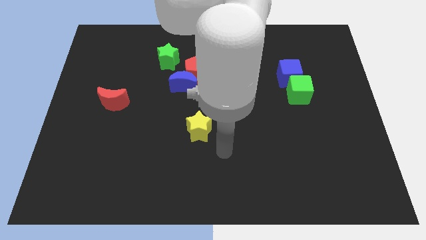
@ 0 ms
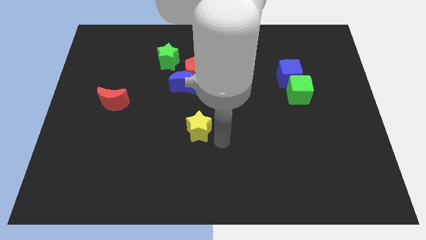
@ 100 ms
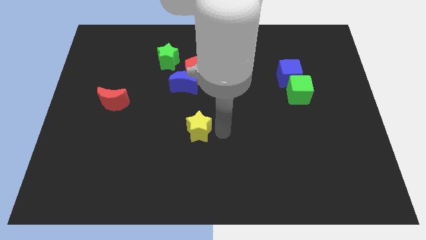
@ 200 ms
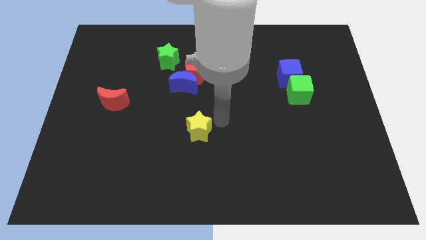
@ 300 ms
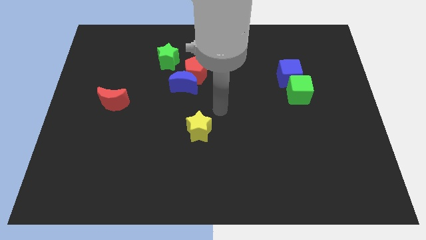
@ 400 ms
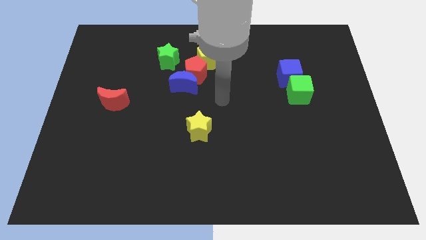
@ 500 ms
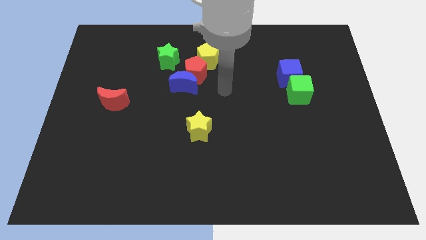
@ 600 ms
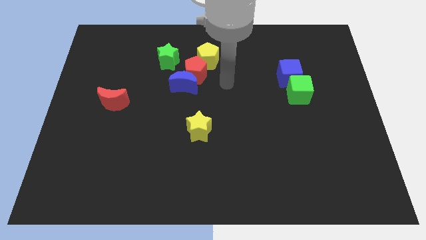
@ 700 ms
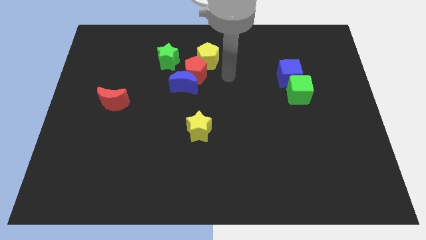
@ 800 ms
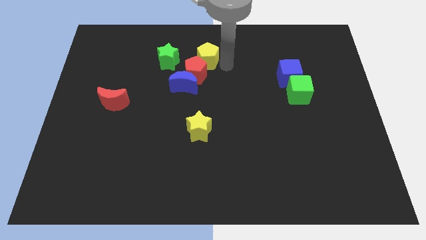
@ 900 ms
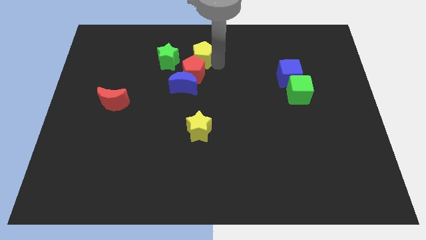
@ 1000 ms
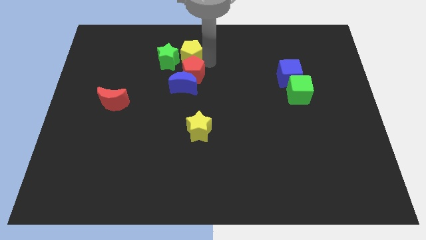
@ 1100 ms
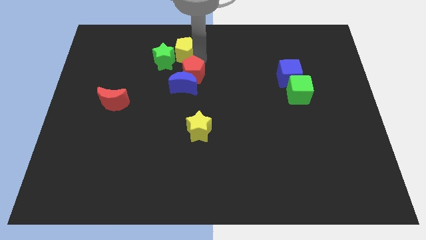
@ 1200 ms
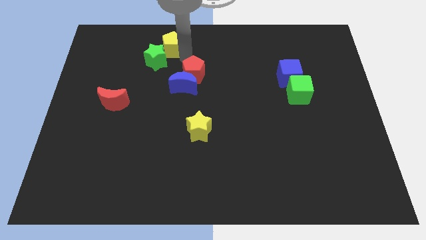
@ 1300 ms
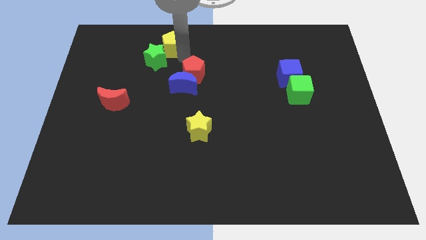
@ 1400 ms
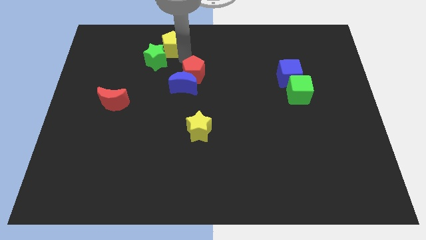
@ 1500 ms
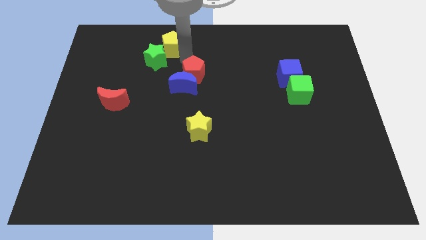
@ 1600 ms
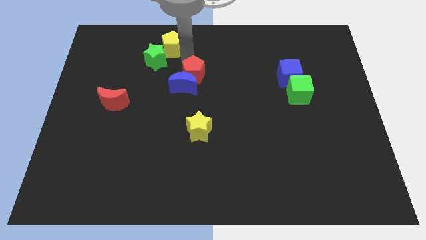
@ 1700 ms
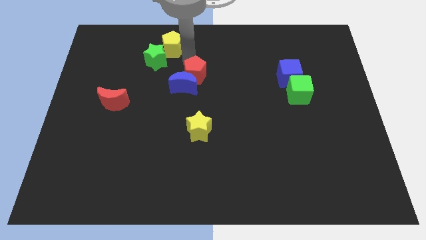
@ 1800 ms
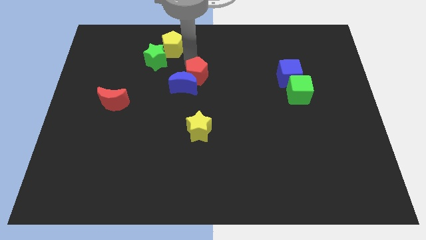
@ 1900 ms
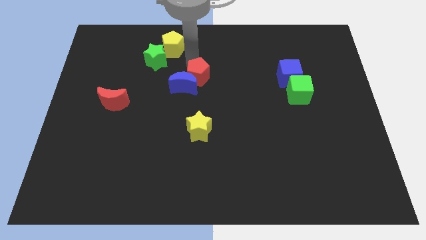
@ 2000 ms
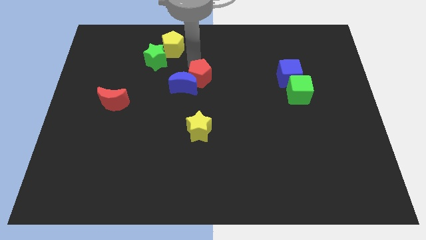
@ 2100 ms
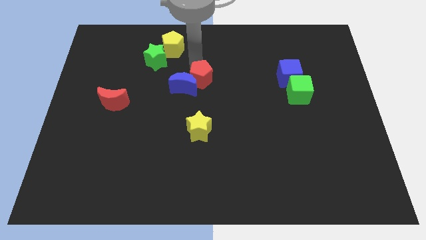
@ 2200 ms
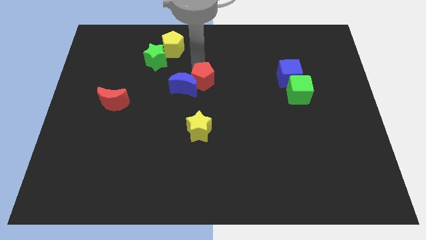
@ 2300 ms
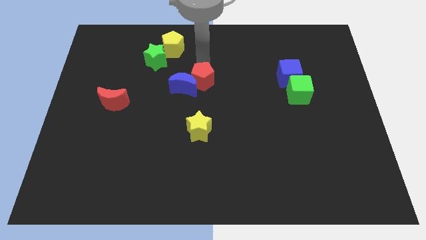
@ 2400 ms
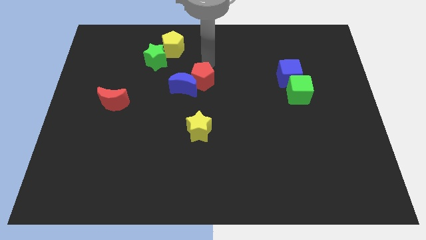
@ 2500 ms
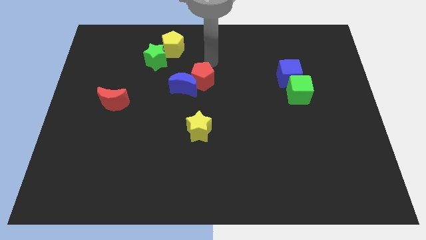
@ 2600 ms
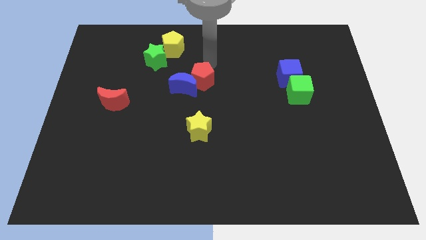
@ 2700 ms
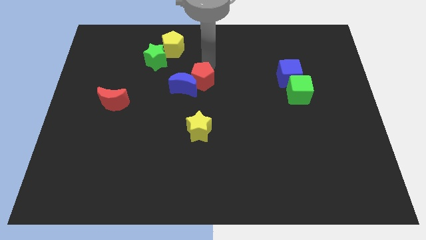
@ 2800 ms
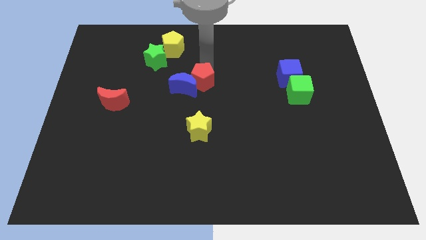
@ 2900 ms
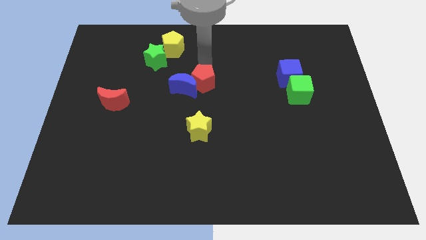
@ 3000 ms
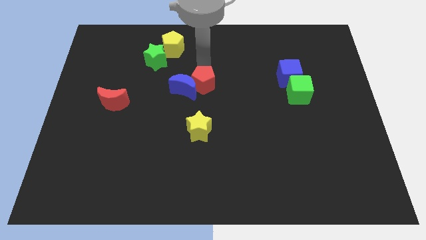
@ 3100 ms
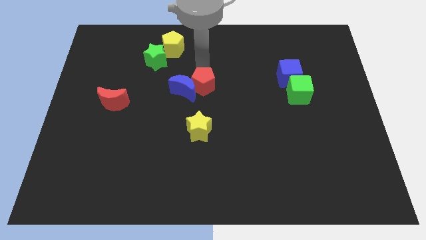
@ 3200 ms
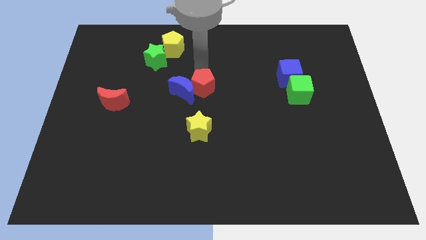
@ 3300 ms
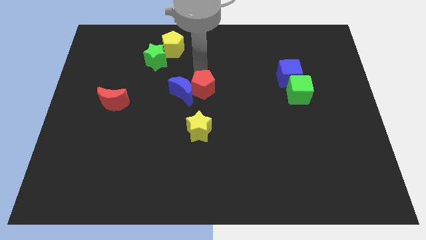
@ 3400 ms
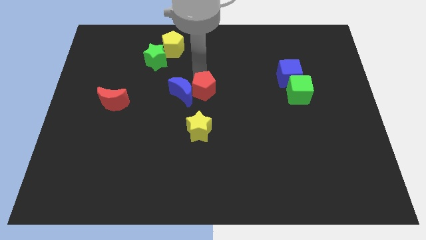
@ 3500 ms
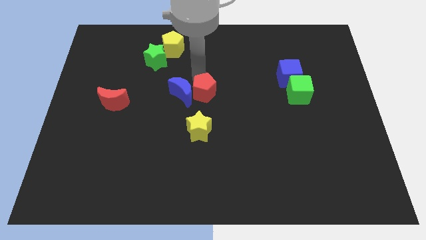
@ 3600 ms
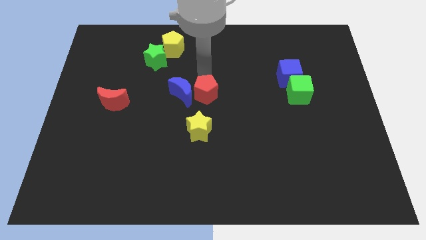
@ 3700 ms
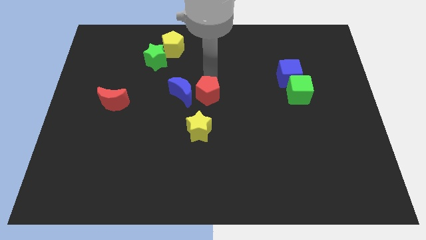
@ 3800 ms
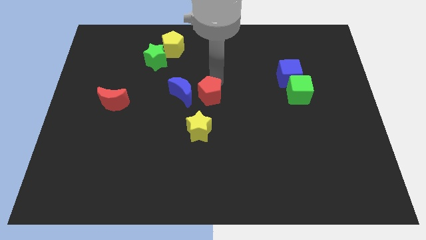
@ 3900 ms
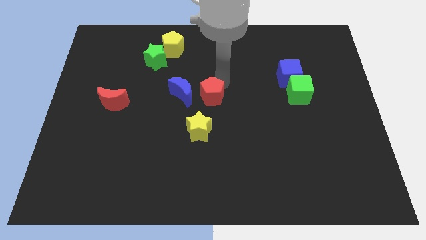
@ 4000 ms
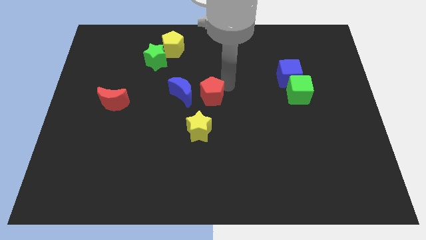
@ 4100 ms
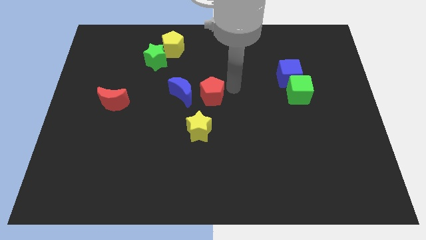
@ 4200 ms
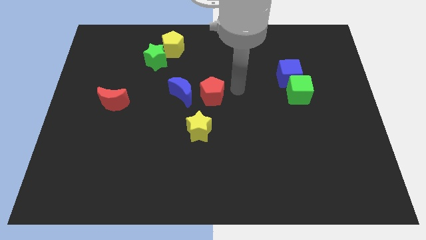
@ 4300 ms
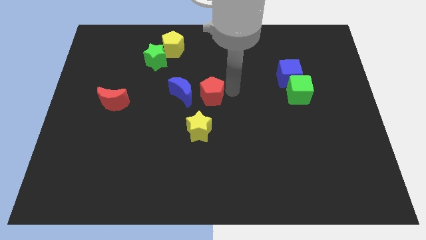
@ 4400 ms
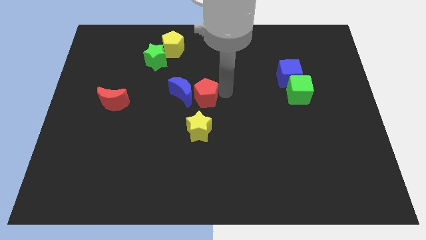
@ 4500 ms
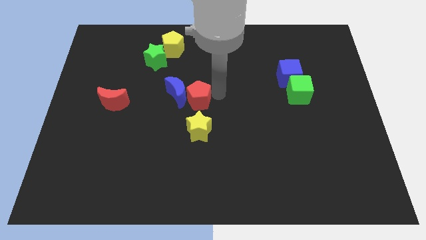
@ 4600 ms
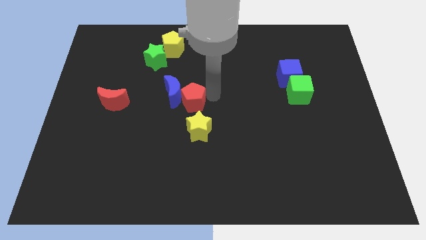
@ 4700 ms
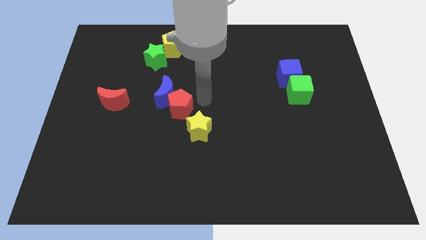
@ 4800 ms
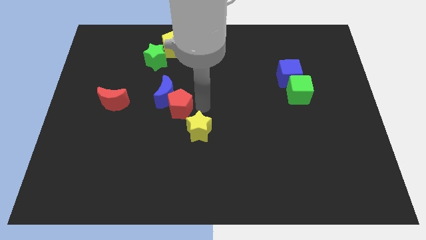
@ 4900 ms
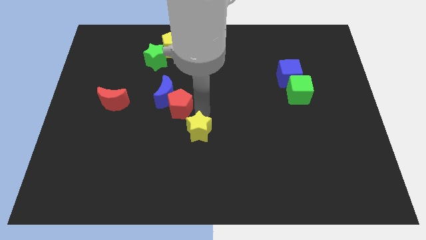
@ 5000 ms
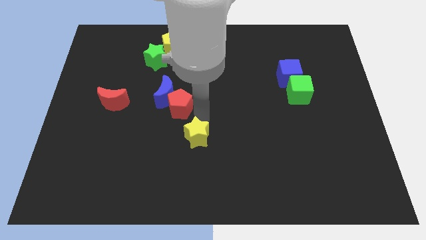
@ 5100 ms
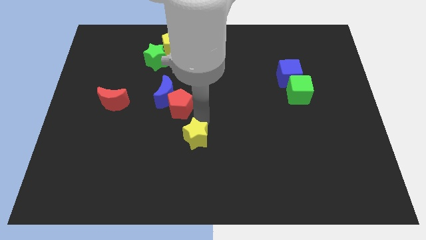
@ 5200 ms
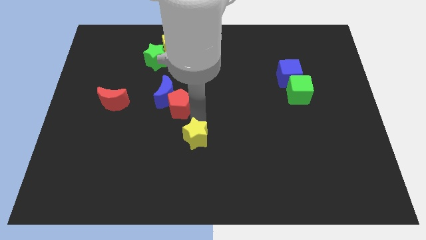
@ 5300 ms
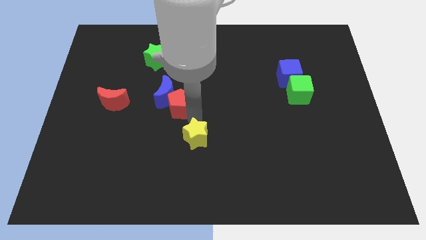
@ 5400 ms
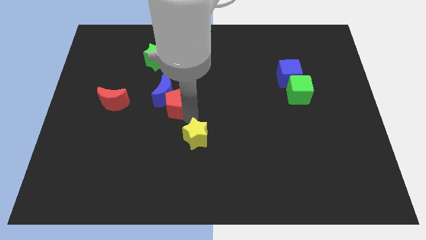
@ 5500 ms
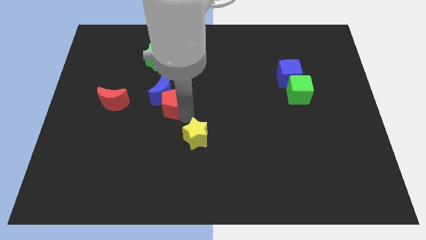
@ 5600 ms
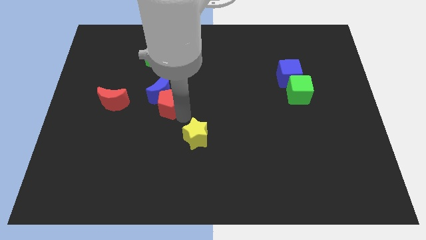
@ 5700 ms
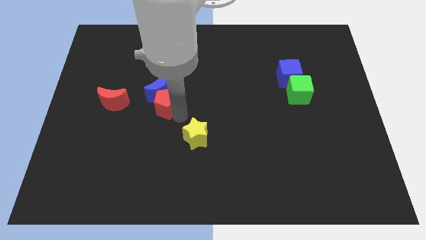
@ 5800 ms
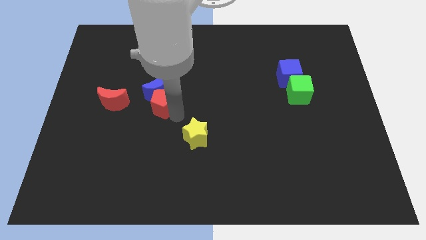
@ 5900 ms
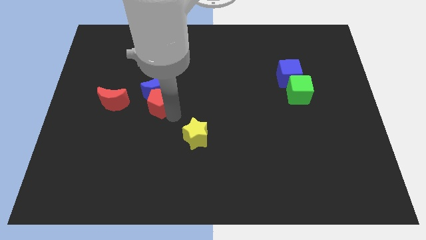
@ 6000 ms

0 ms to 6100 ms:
push the red pentagon below the green star

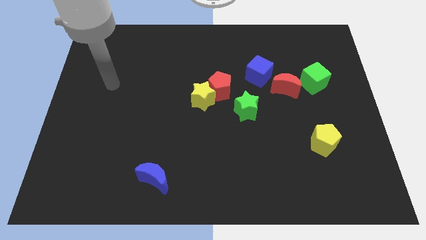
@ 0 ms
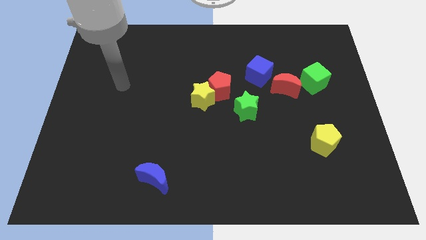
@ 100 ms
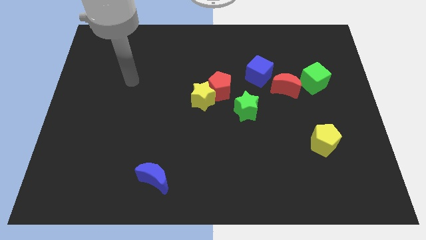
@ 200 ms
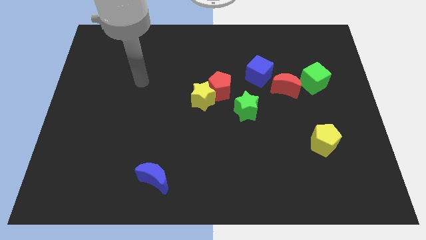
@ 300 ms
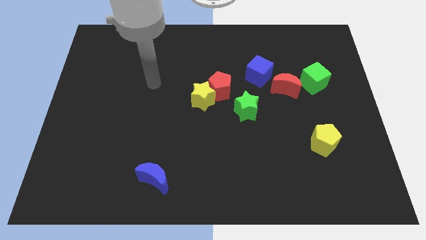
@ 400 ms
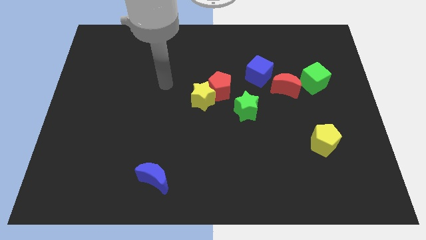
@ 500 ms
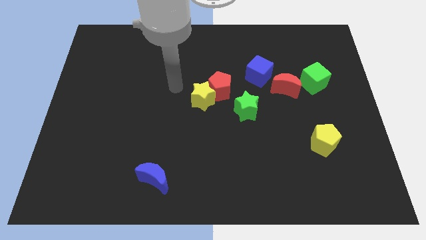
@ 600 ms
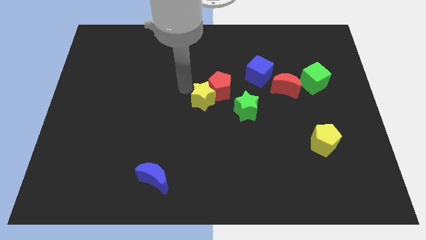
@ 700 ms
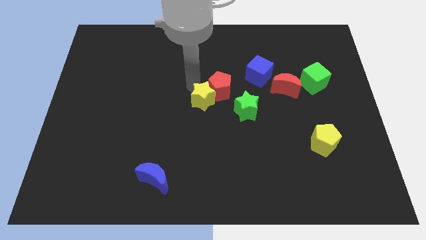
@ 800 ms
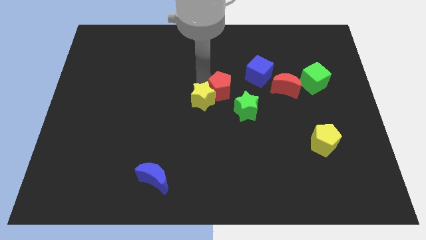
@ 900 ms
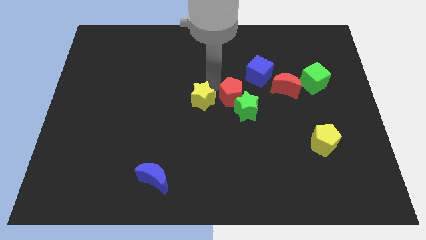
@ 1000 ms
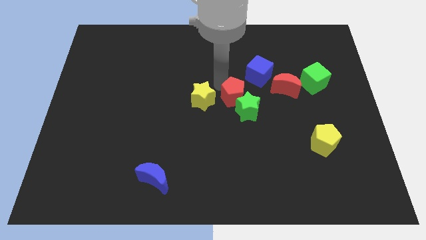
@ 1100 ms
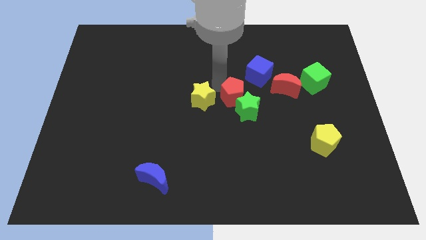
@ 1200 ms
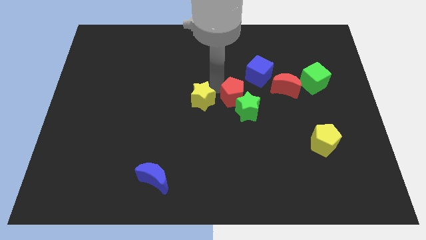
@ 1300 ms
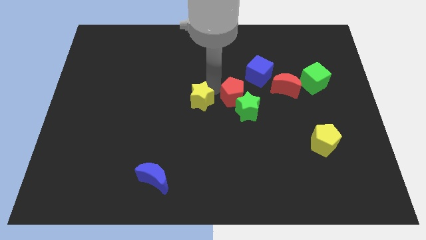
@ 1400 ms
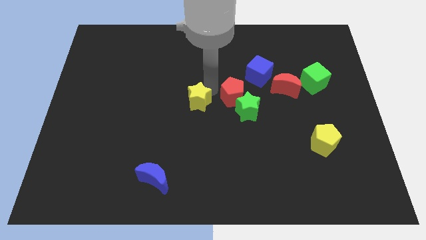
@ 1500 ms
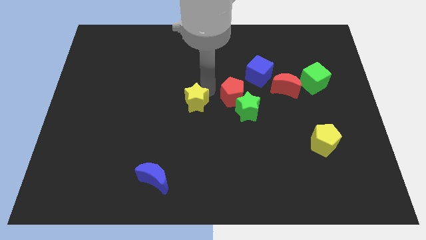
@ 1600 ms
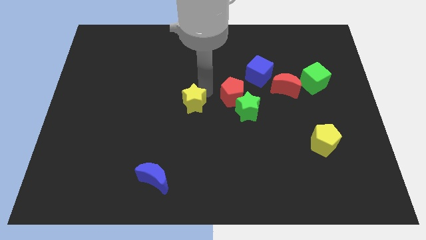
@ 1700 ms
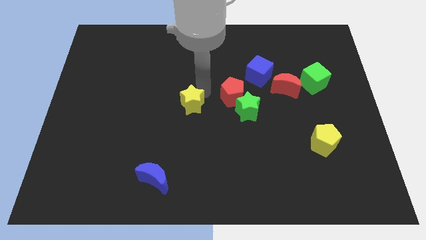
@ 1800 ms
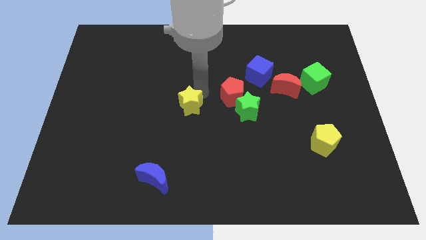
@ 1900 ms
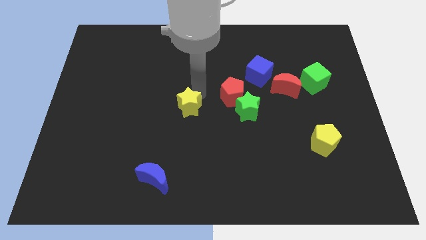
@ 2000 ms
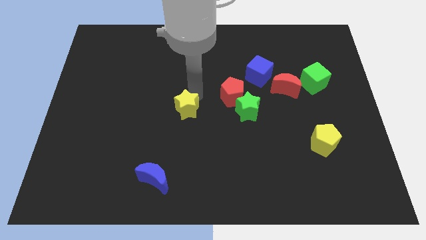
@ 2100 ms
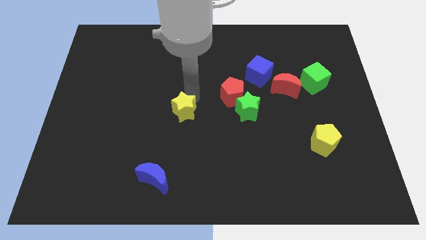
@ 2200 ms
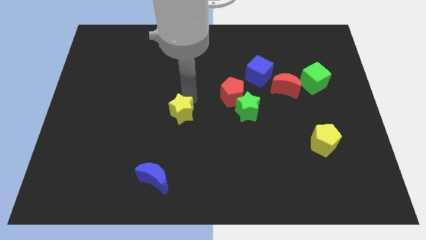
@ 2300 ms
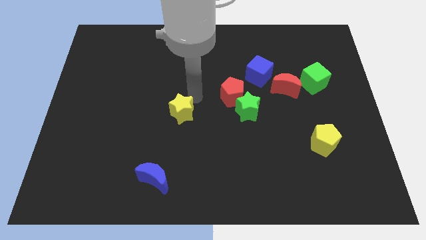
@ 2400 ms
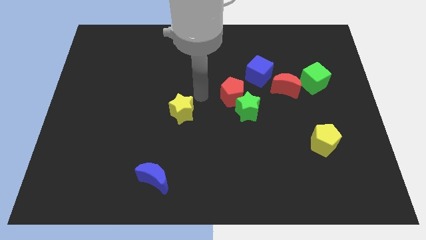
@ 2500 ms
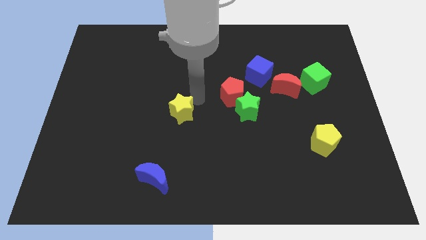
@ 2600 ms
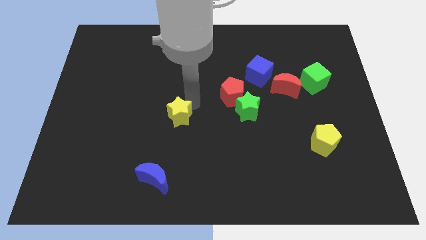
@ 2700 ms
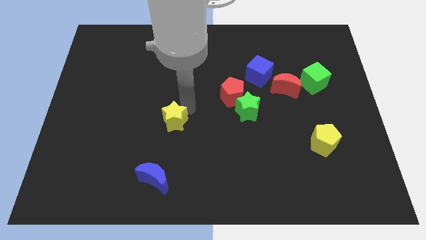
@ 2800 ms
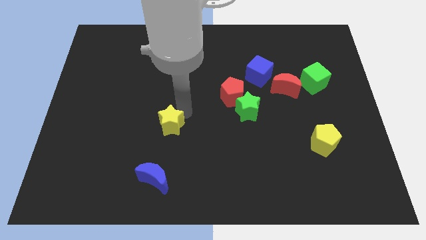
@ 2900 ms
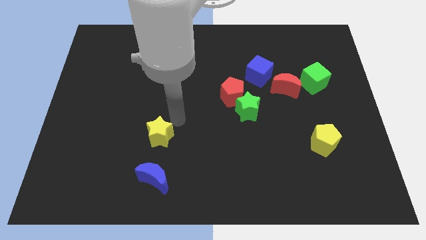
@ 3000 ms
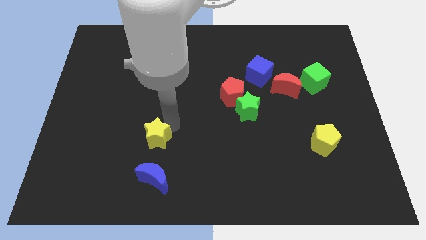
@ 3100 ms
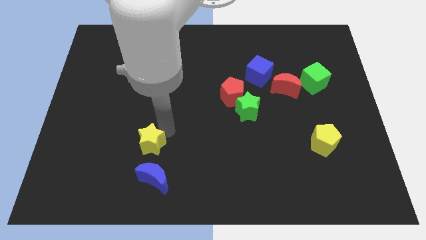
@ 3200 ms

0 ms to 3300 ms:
slide the yellow star to the top left of the blue moon
